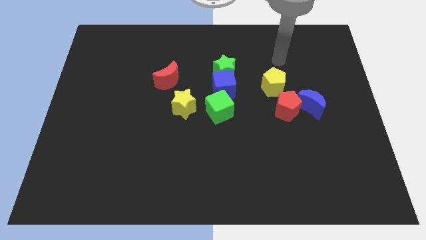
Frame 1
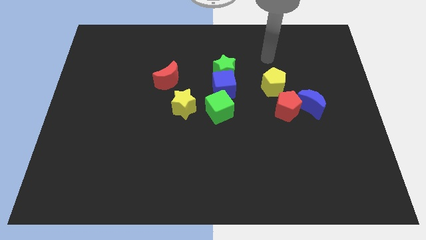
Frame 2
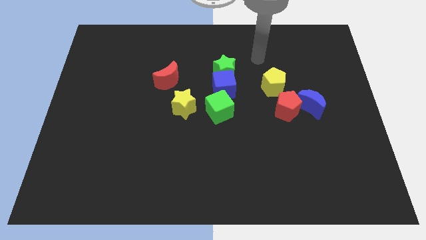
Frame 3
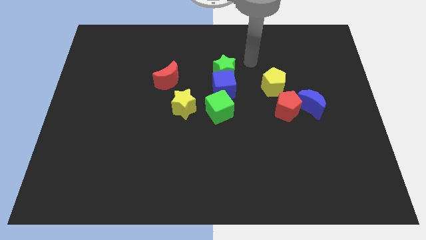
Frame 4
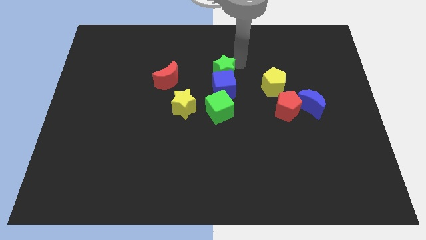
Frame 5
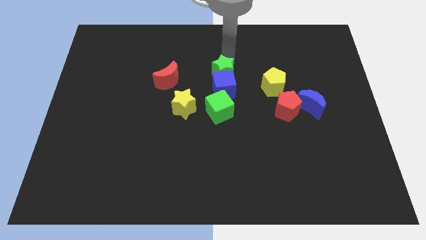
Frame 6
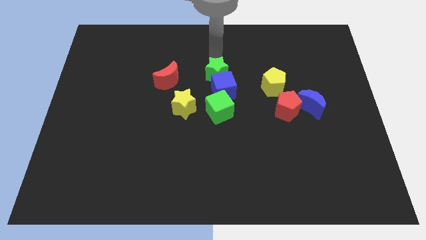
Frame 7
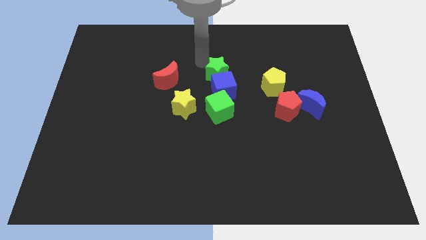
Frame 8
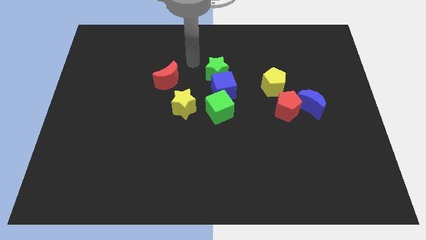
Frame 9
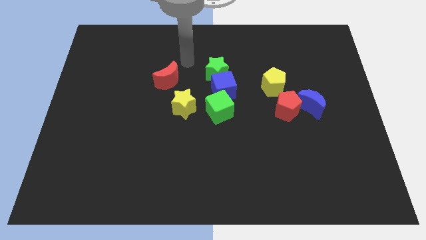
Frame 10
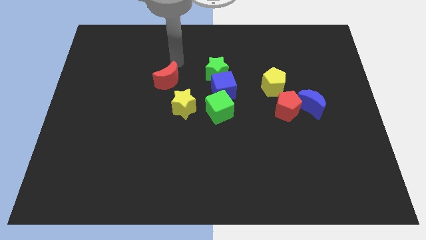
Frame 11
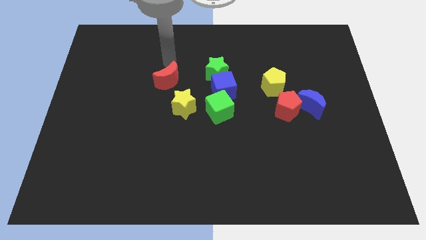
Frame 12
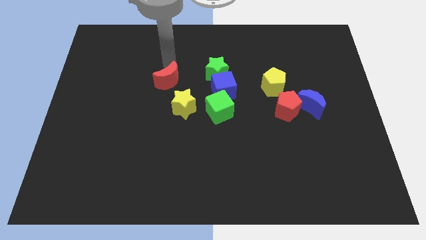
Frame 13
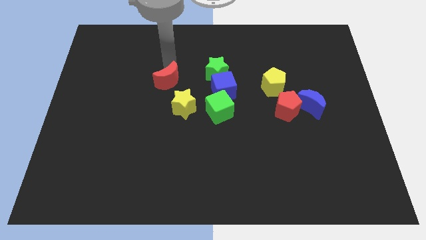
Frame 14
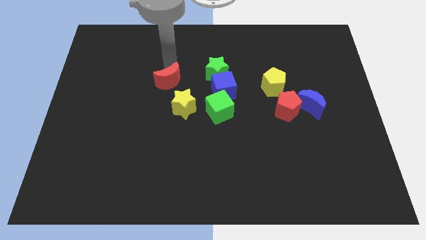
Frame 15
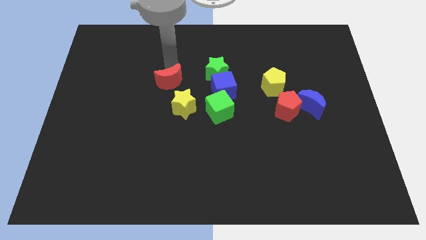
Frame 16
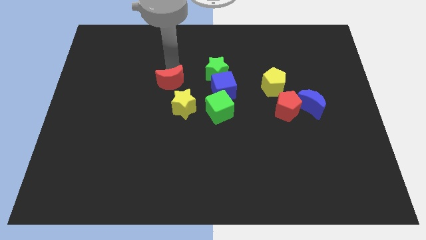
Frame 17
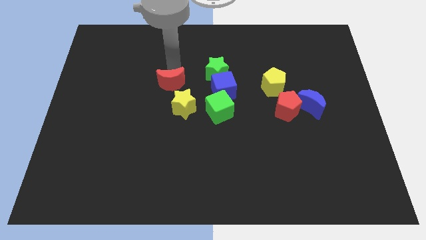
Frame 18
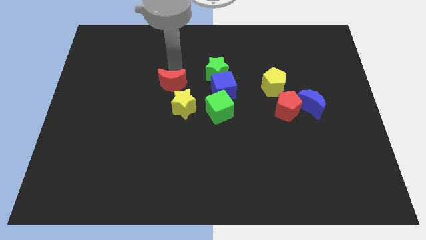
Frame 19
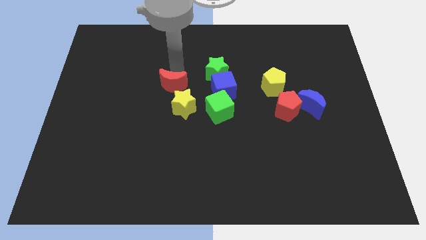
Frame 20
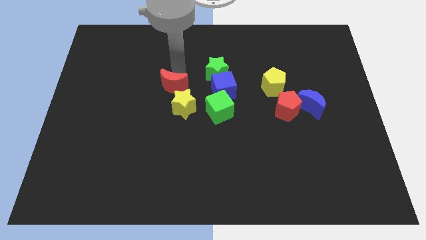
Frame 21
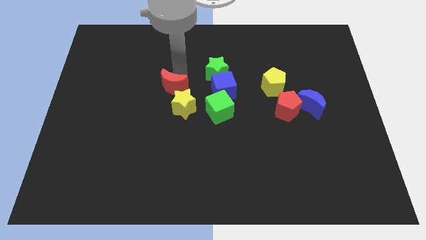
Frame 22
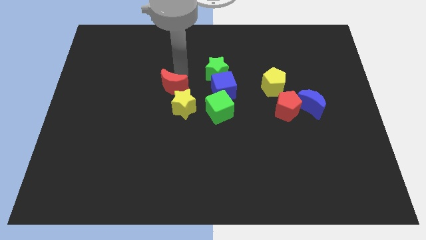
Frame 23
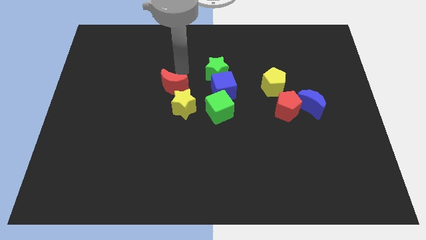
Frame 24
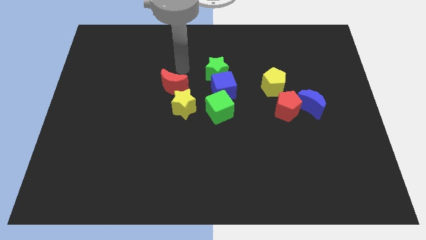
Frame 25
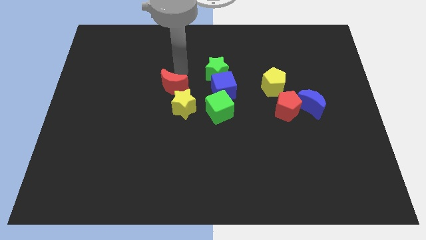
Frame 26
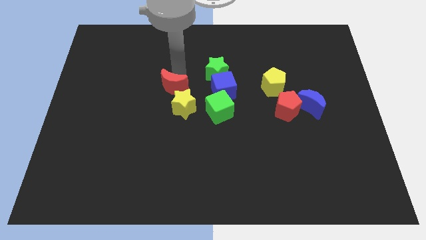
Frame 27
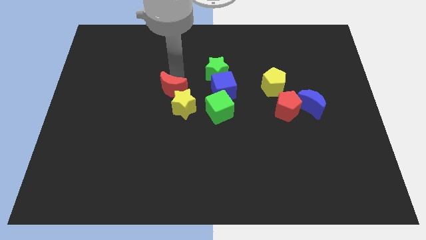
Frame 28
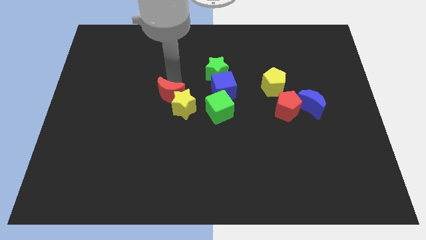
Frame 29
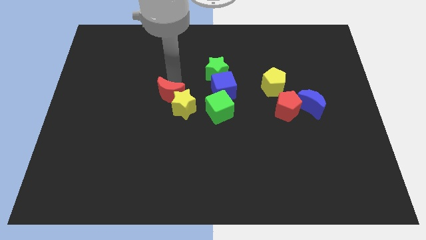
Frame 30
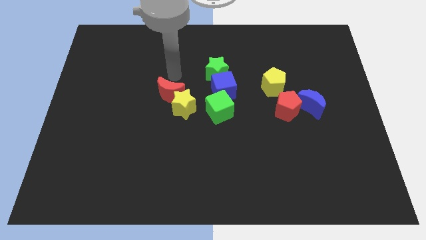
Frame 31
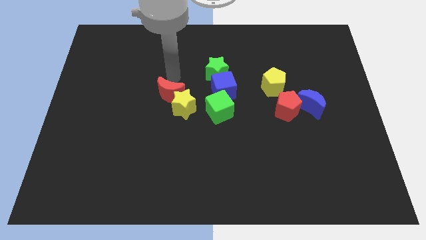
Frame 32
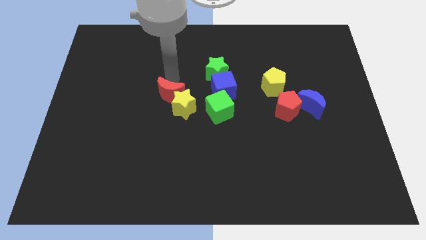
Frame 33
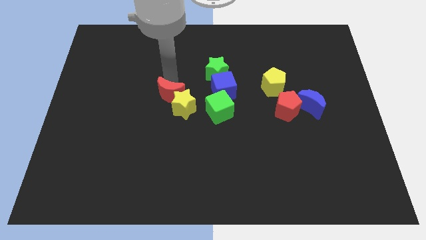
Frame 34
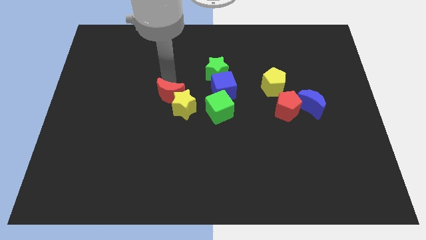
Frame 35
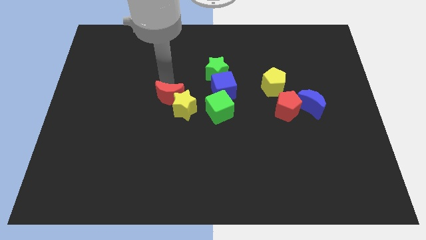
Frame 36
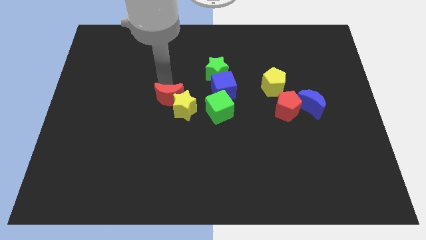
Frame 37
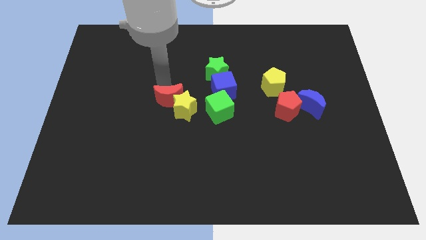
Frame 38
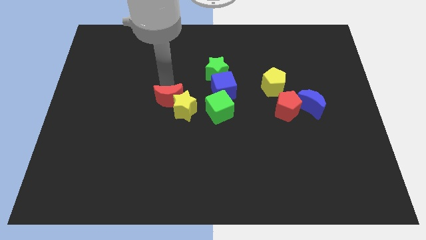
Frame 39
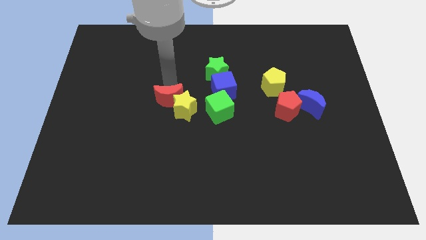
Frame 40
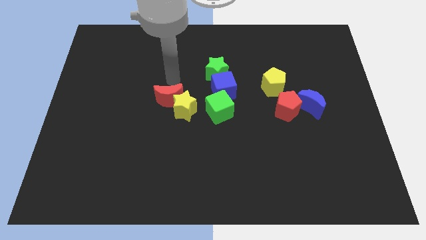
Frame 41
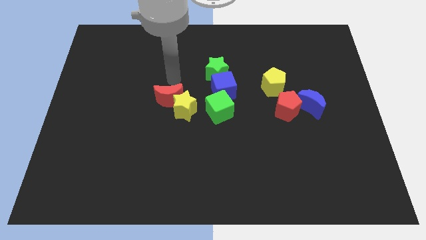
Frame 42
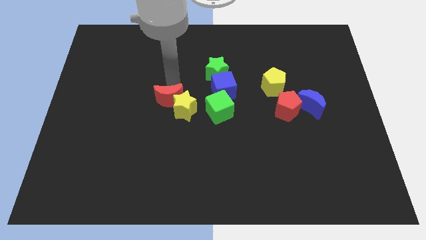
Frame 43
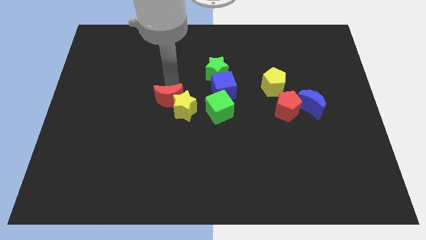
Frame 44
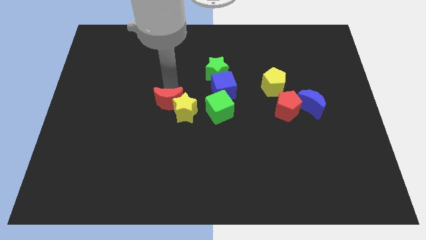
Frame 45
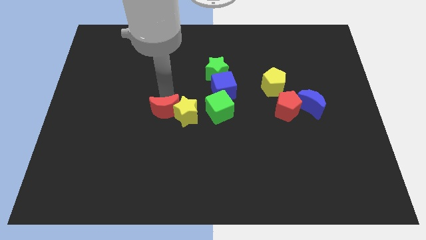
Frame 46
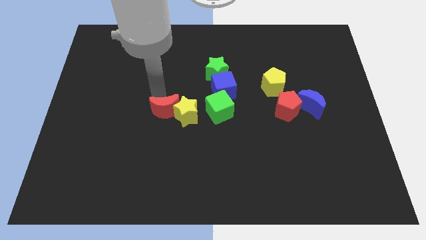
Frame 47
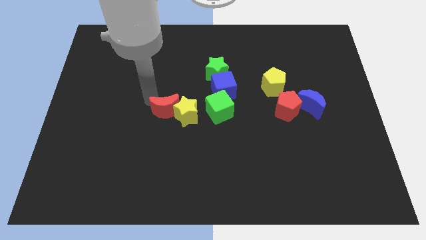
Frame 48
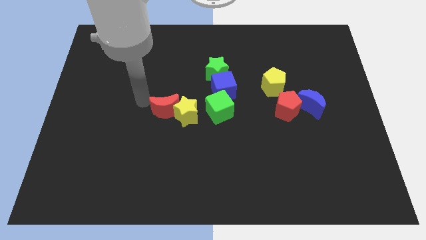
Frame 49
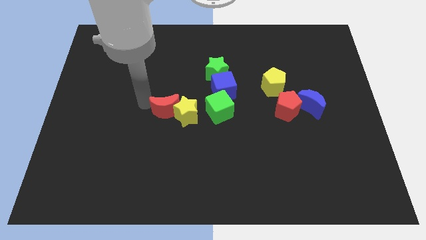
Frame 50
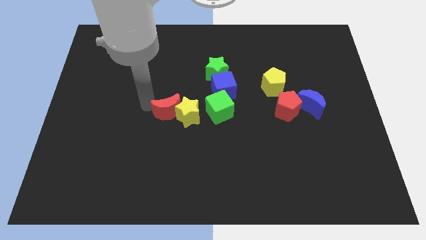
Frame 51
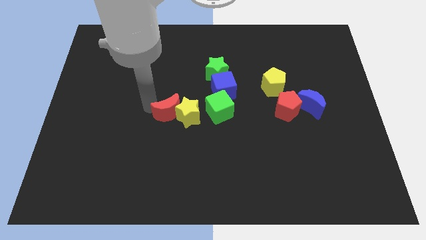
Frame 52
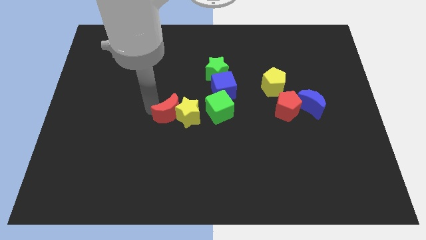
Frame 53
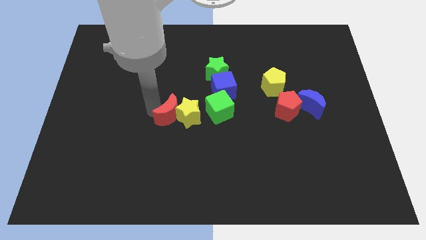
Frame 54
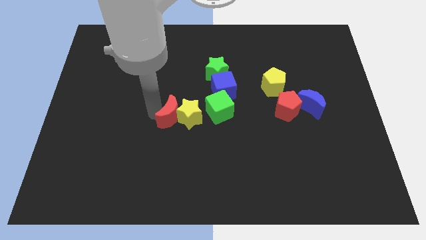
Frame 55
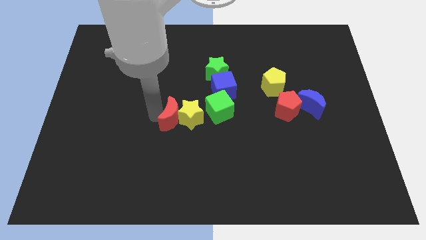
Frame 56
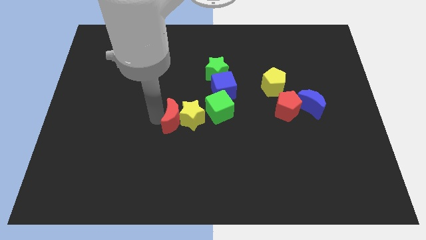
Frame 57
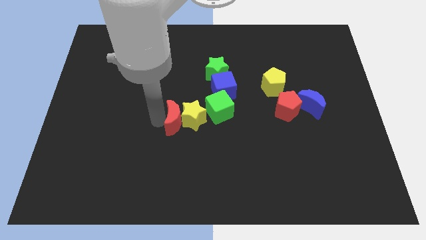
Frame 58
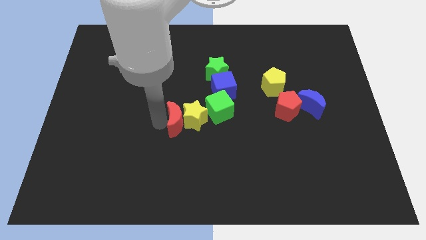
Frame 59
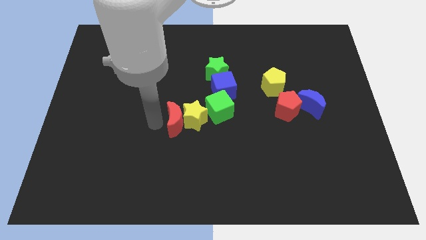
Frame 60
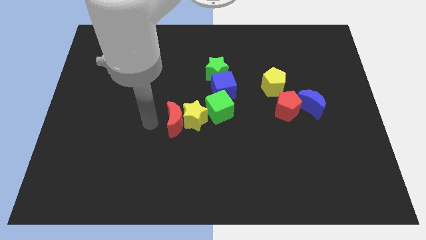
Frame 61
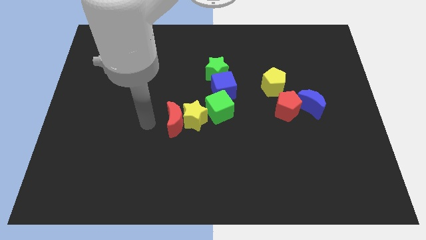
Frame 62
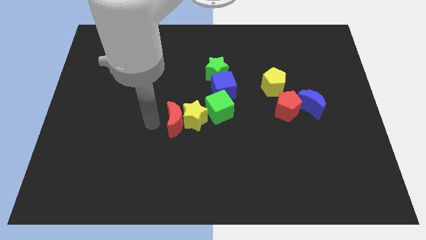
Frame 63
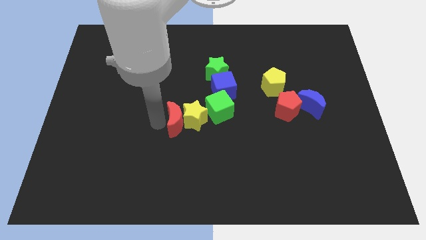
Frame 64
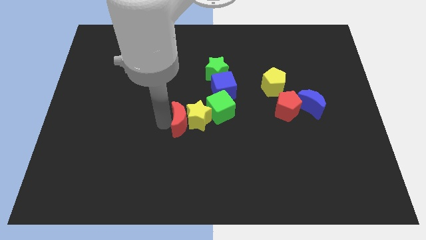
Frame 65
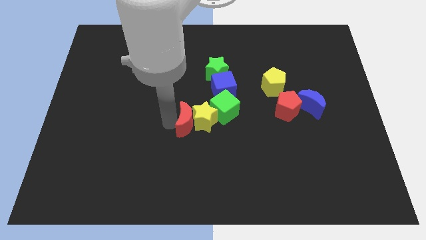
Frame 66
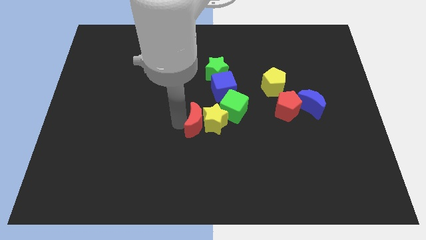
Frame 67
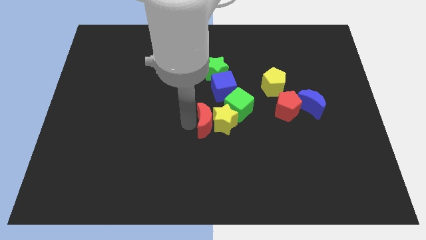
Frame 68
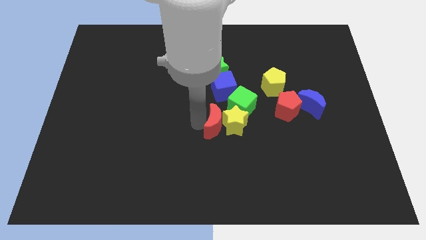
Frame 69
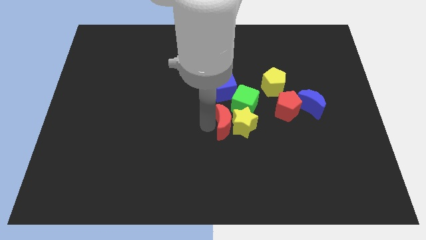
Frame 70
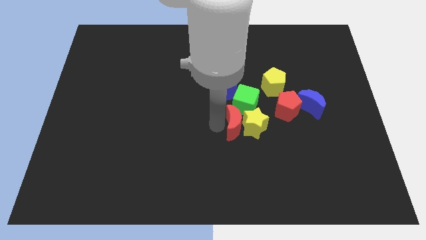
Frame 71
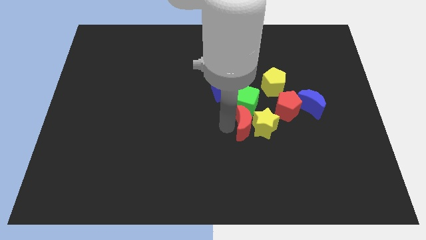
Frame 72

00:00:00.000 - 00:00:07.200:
slide the red moon diagonally down and to the right of the green cube
